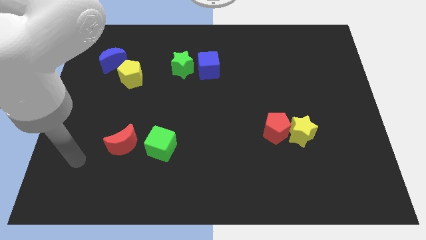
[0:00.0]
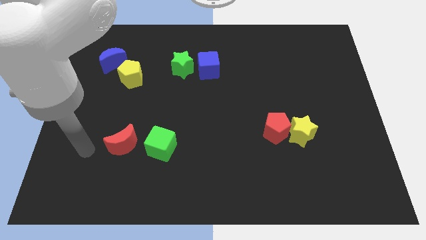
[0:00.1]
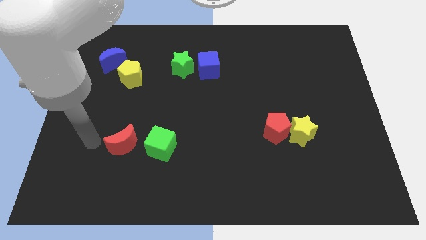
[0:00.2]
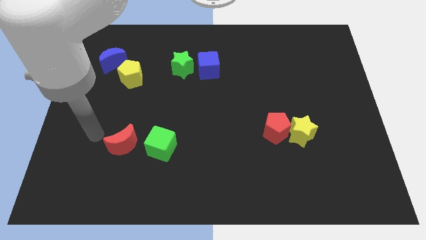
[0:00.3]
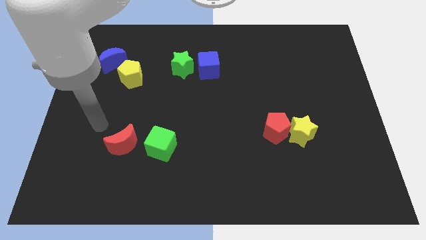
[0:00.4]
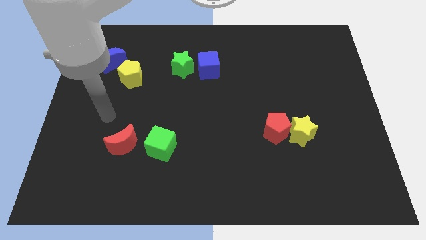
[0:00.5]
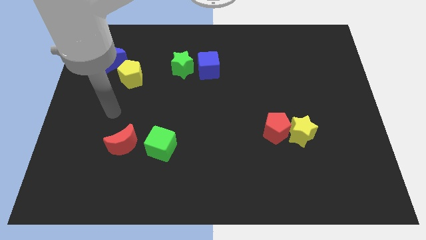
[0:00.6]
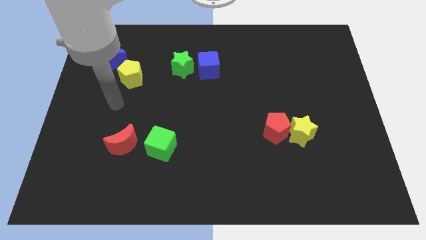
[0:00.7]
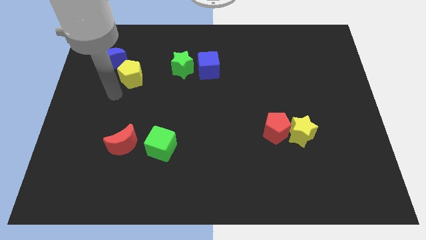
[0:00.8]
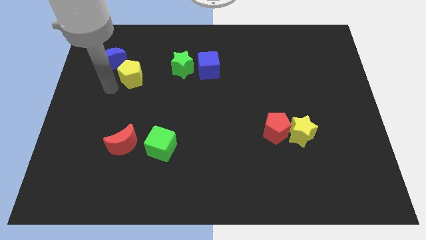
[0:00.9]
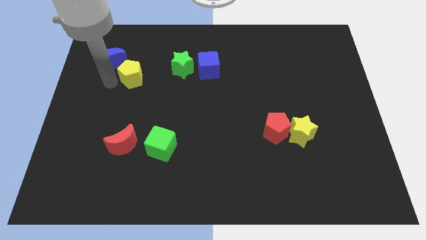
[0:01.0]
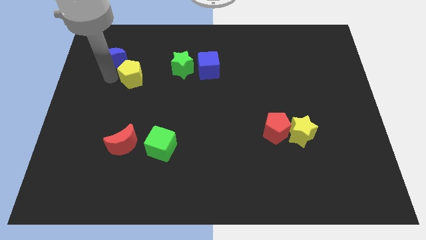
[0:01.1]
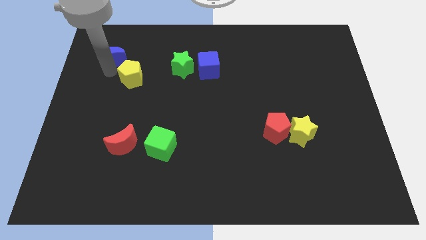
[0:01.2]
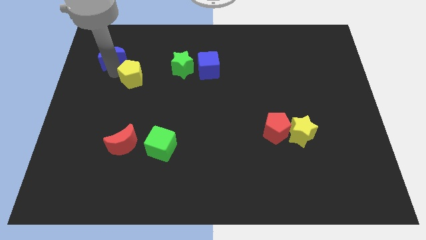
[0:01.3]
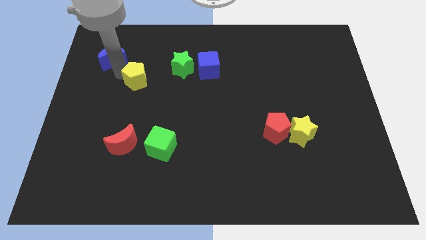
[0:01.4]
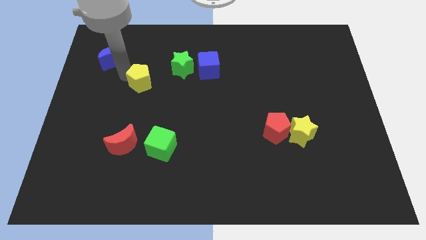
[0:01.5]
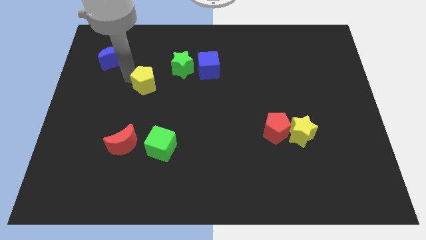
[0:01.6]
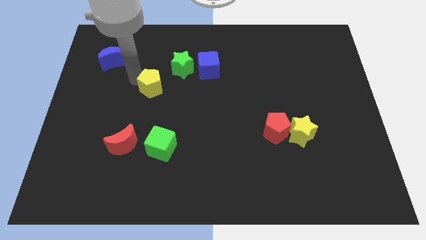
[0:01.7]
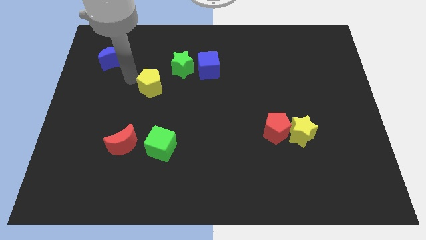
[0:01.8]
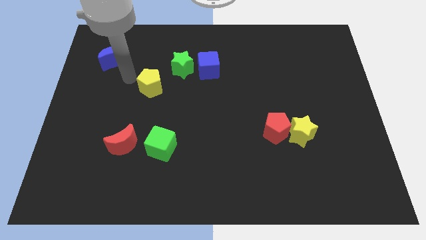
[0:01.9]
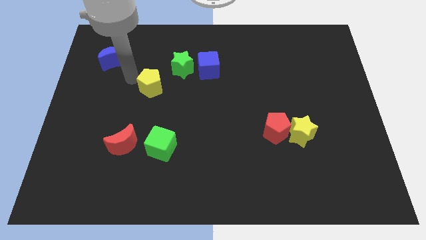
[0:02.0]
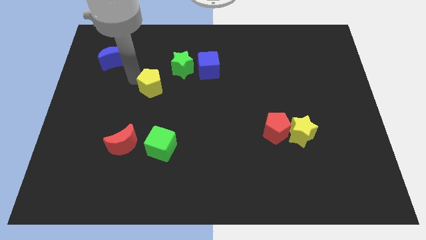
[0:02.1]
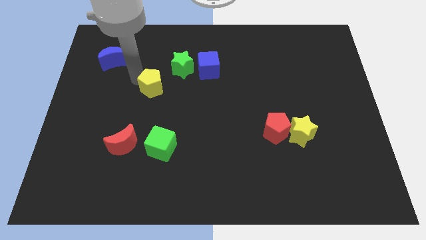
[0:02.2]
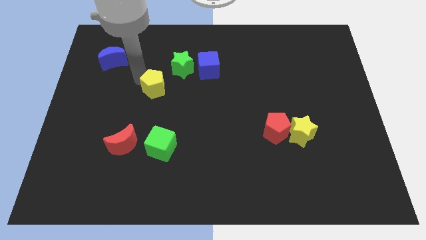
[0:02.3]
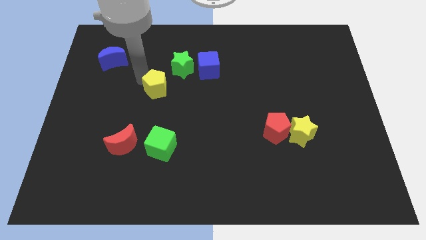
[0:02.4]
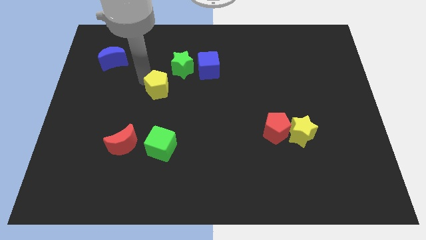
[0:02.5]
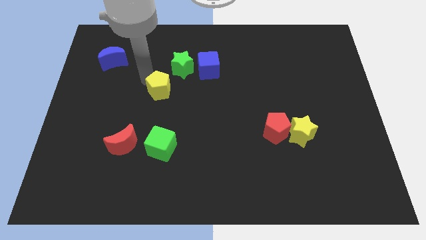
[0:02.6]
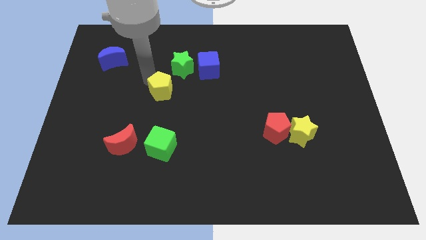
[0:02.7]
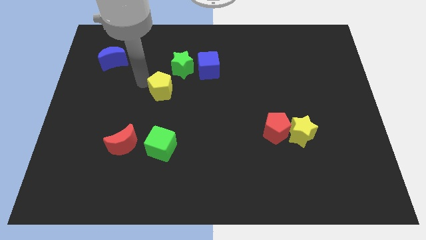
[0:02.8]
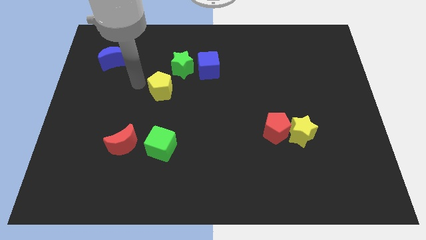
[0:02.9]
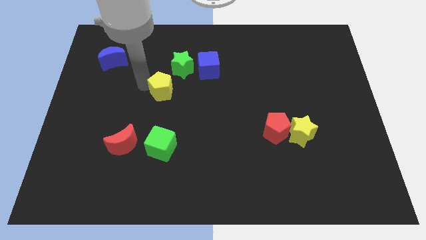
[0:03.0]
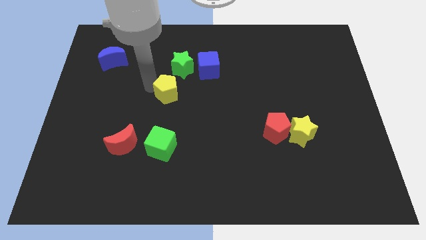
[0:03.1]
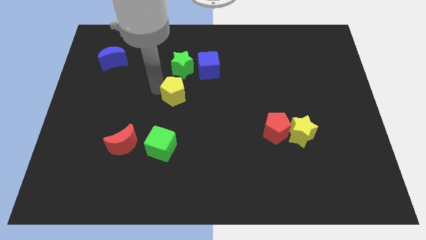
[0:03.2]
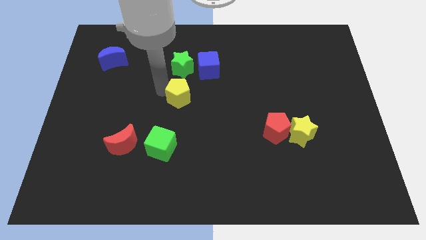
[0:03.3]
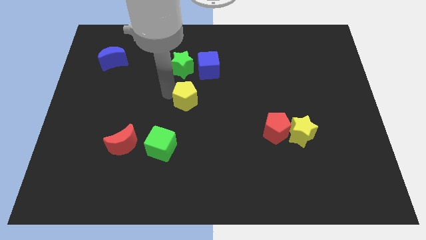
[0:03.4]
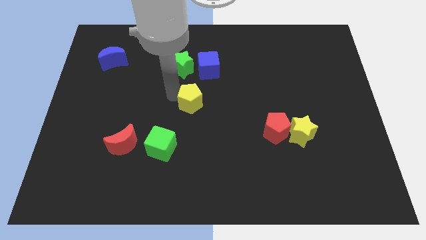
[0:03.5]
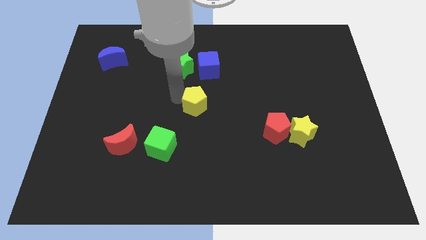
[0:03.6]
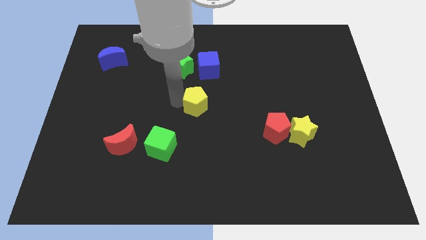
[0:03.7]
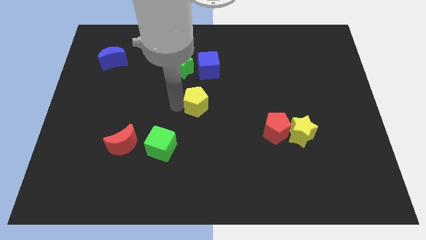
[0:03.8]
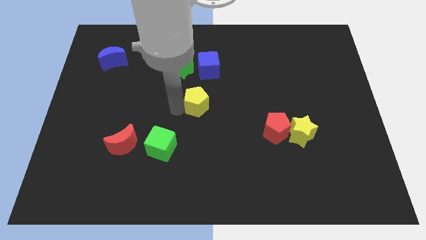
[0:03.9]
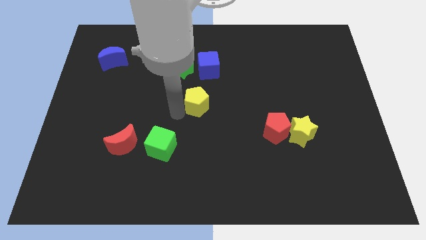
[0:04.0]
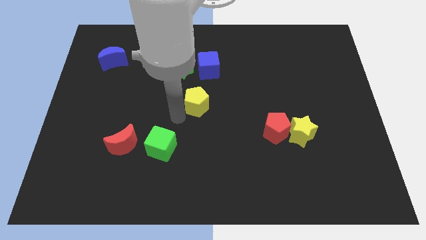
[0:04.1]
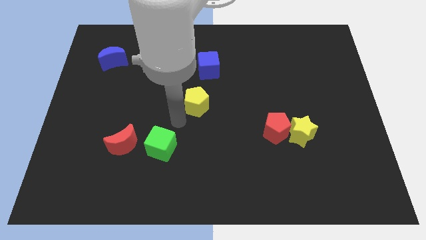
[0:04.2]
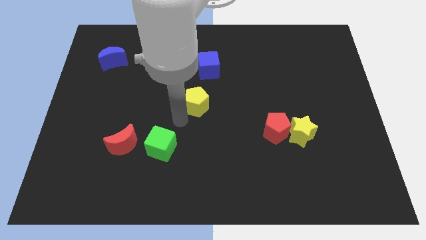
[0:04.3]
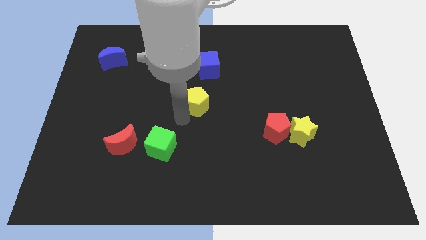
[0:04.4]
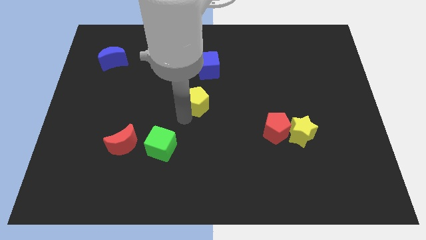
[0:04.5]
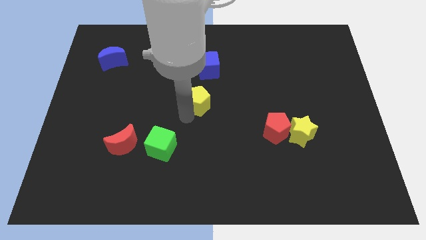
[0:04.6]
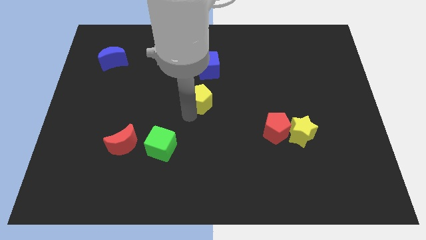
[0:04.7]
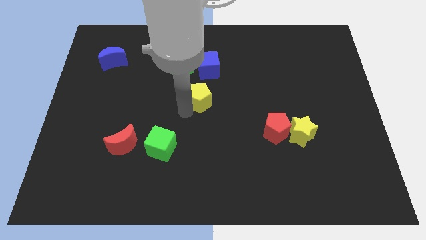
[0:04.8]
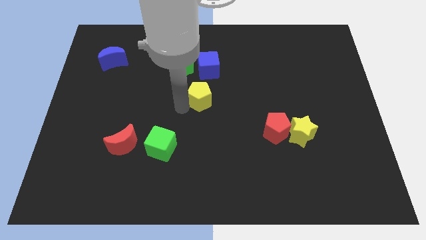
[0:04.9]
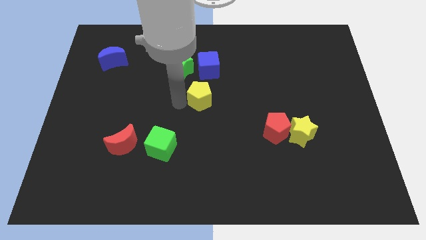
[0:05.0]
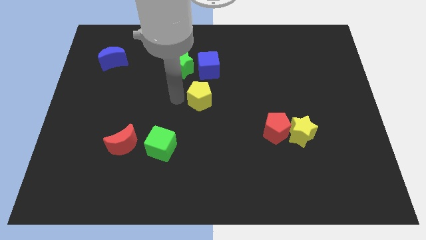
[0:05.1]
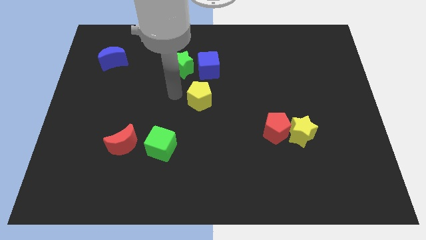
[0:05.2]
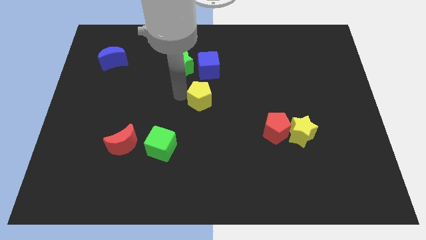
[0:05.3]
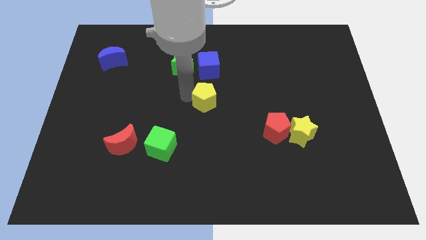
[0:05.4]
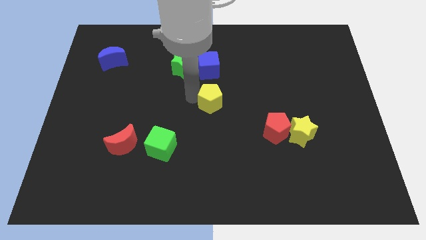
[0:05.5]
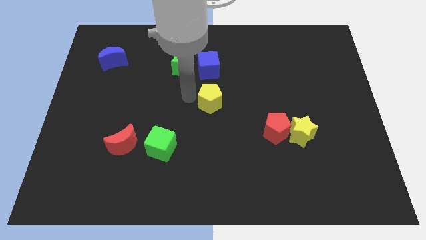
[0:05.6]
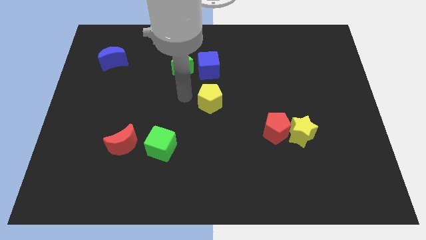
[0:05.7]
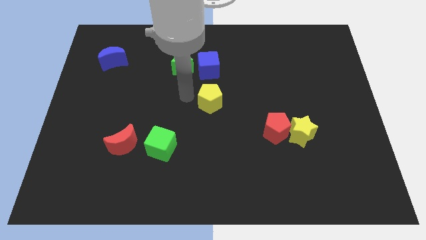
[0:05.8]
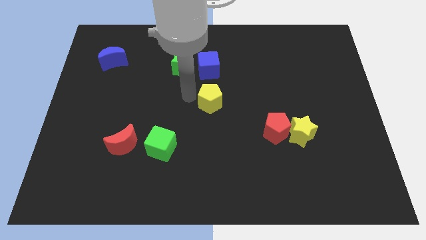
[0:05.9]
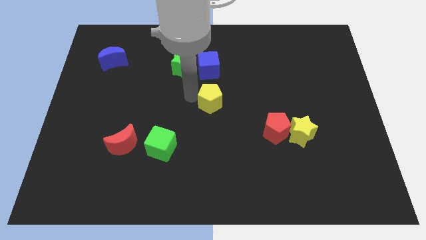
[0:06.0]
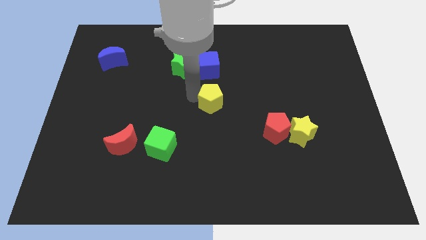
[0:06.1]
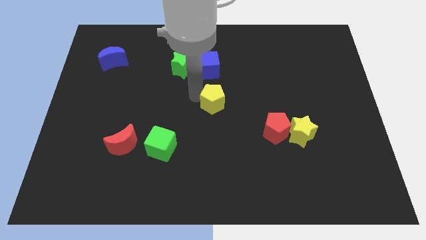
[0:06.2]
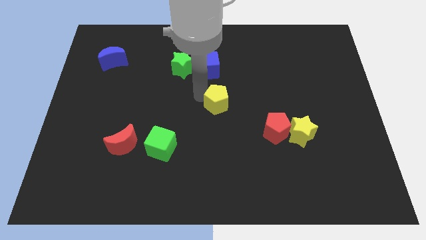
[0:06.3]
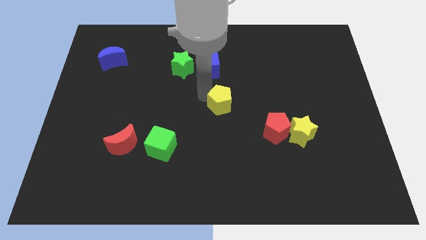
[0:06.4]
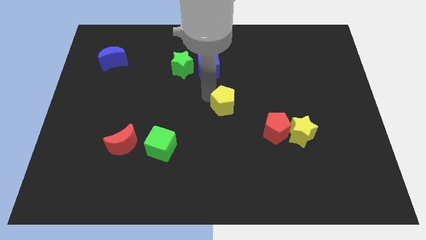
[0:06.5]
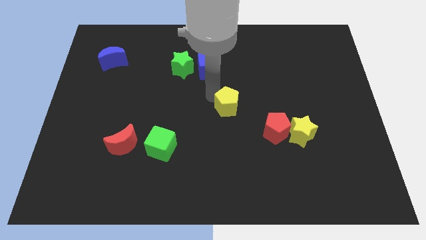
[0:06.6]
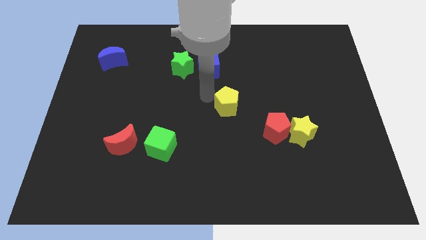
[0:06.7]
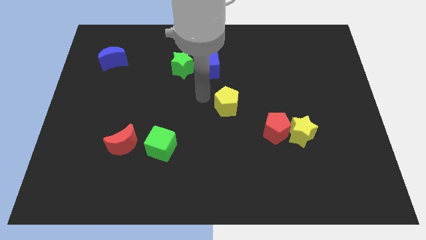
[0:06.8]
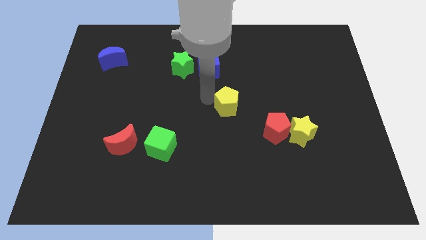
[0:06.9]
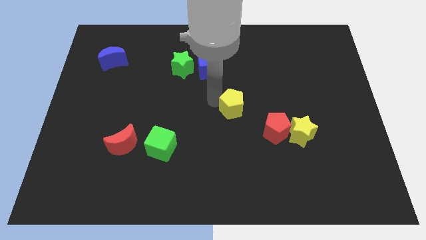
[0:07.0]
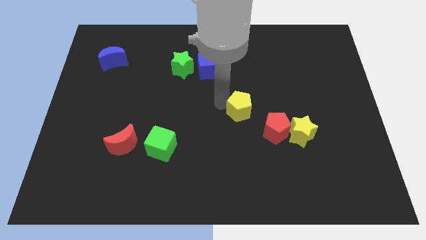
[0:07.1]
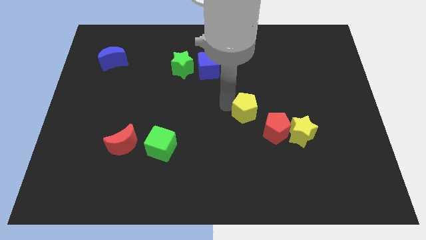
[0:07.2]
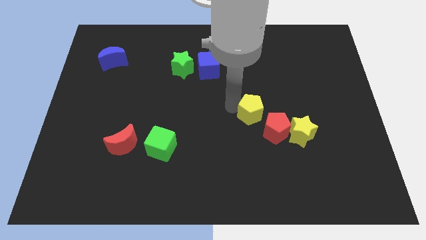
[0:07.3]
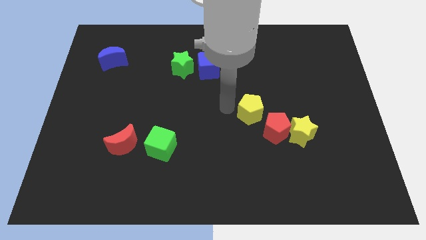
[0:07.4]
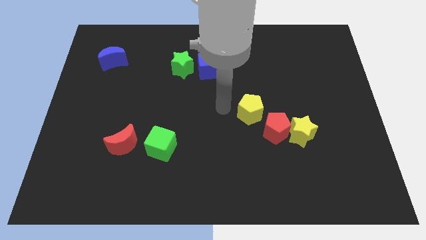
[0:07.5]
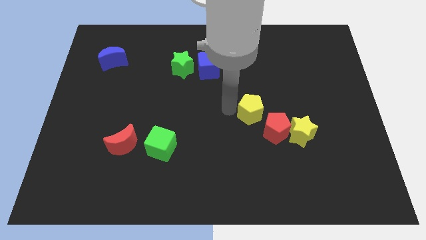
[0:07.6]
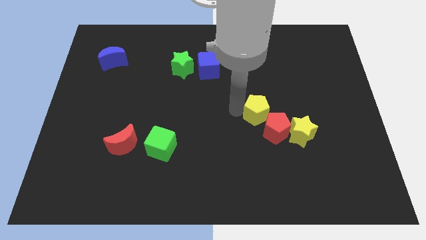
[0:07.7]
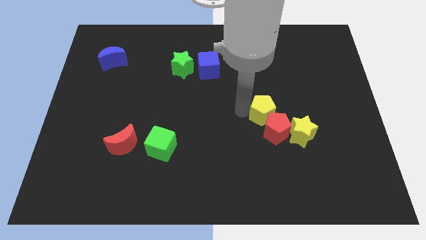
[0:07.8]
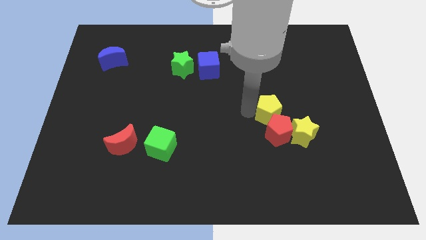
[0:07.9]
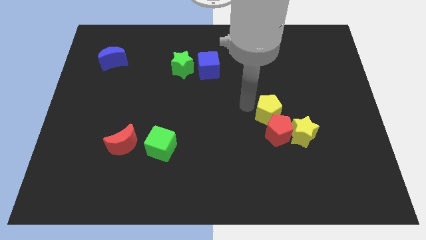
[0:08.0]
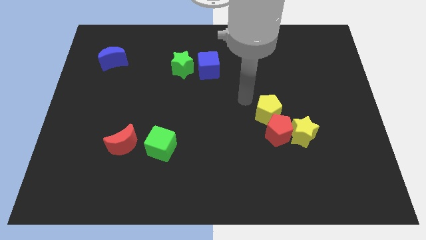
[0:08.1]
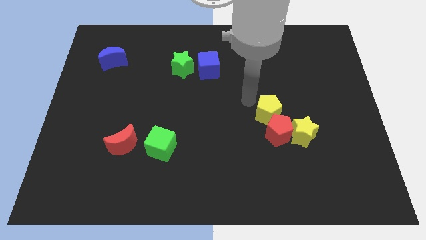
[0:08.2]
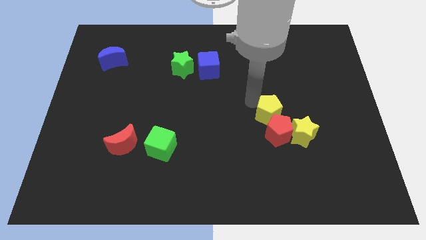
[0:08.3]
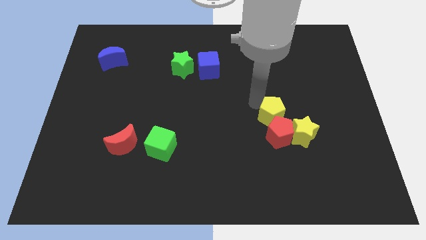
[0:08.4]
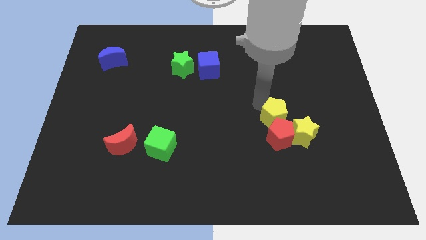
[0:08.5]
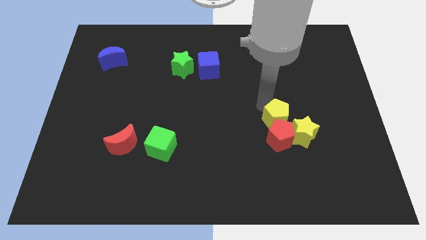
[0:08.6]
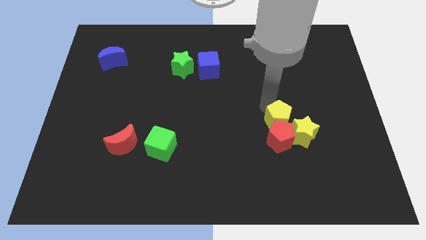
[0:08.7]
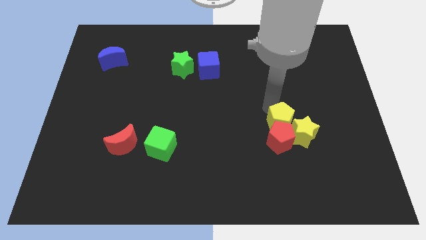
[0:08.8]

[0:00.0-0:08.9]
slide the yellow pentagon next to the yellow star
